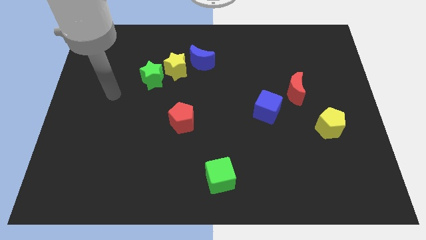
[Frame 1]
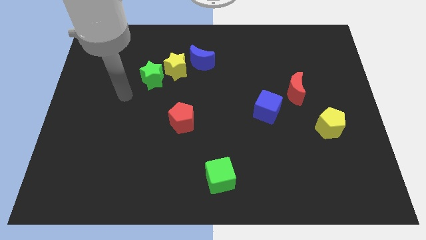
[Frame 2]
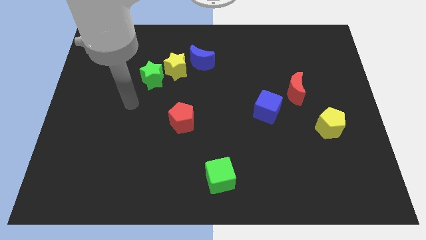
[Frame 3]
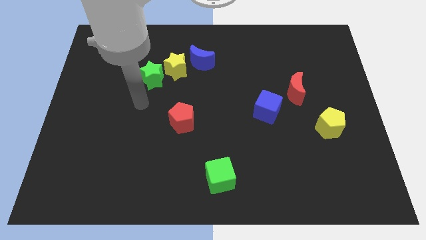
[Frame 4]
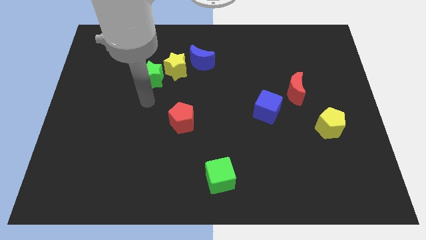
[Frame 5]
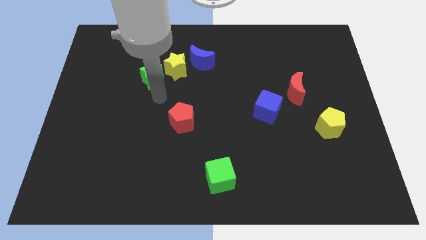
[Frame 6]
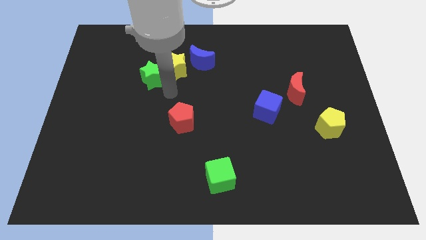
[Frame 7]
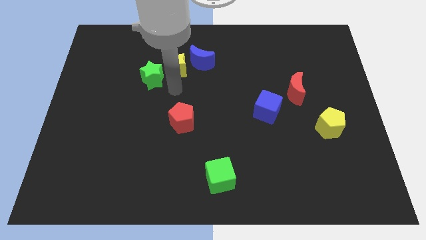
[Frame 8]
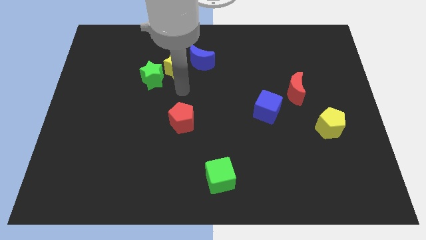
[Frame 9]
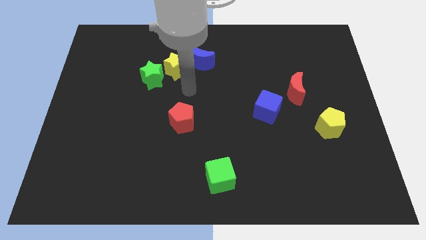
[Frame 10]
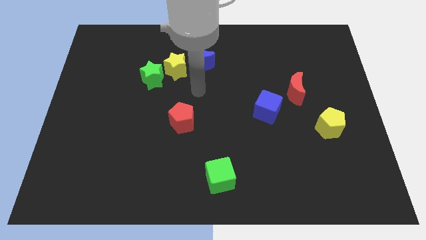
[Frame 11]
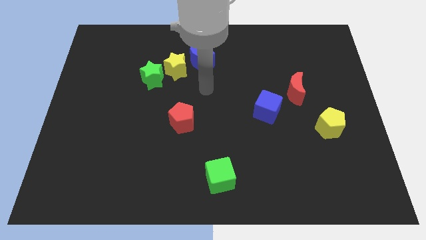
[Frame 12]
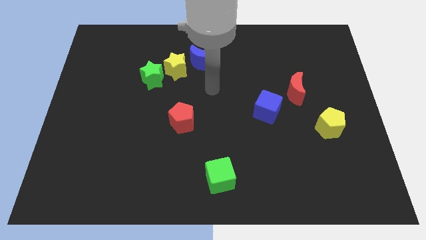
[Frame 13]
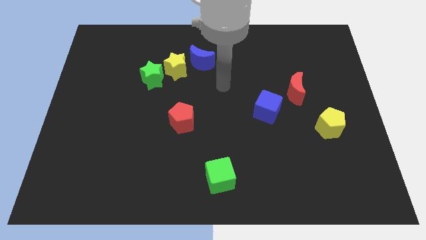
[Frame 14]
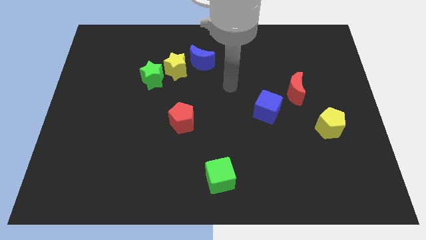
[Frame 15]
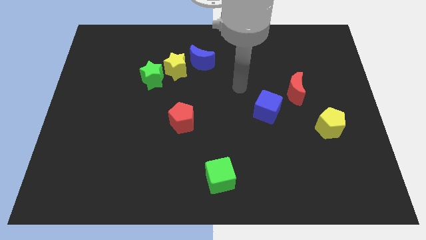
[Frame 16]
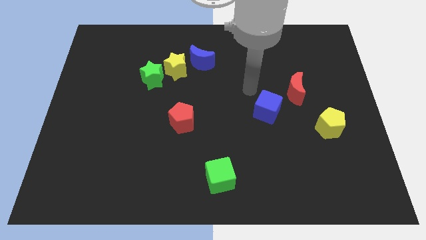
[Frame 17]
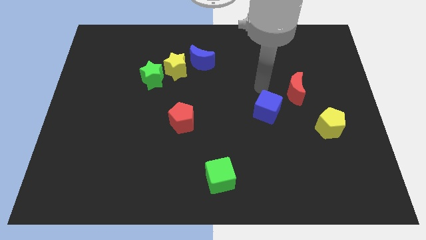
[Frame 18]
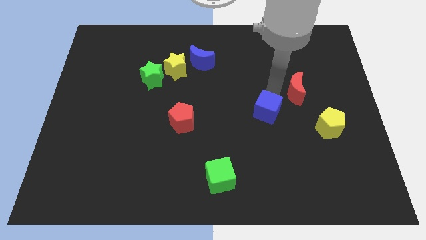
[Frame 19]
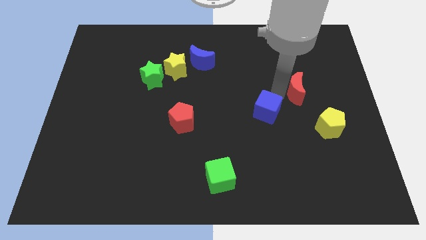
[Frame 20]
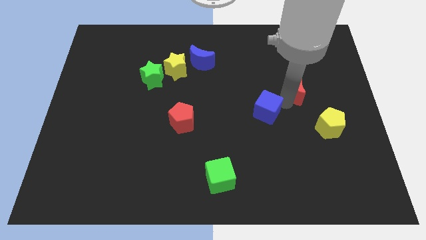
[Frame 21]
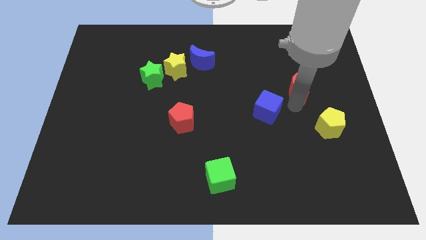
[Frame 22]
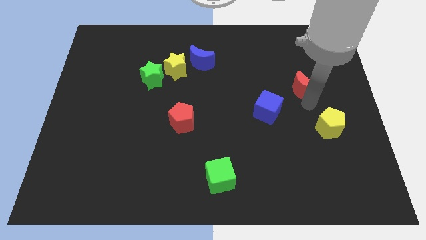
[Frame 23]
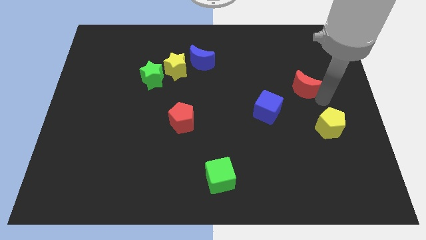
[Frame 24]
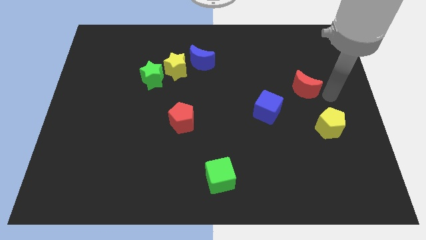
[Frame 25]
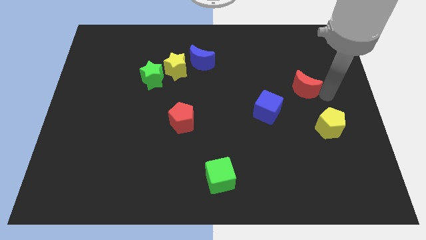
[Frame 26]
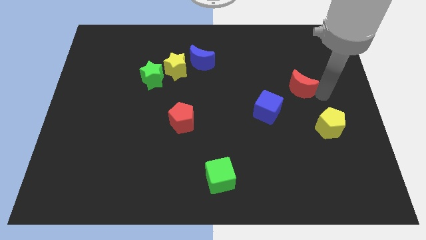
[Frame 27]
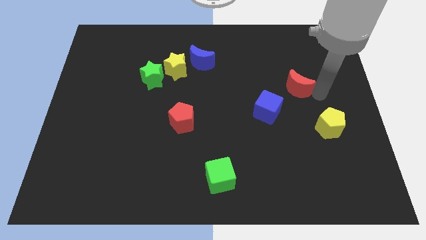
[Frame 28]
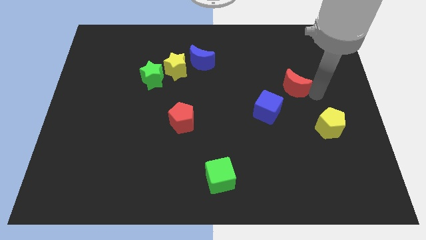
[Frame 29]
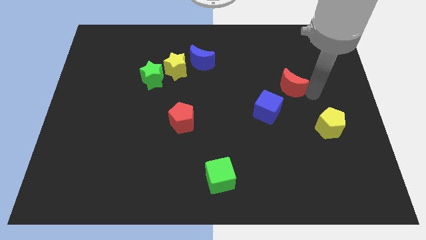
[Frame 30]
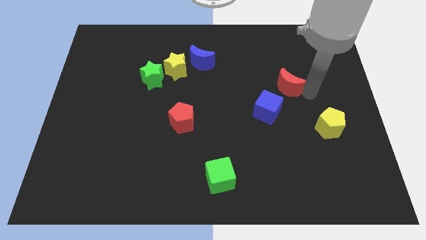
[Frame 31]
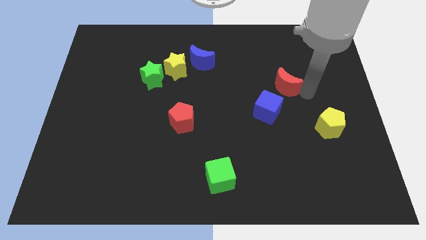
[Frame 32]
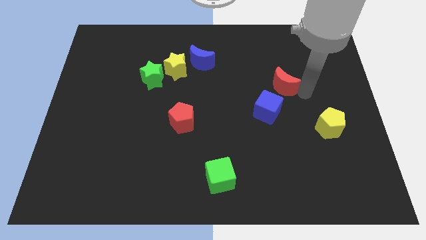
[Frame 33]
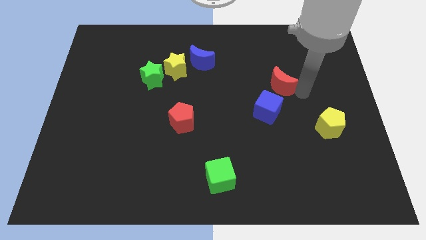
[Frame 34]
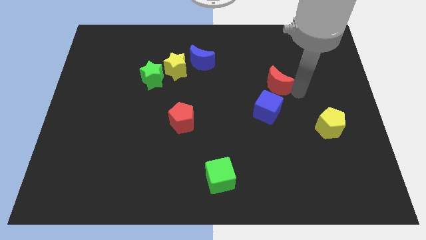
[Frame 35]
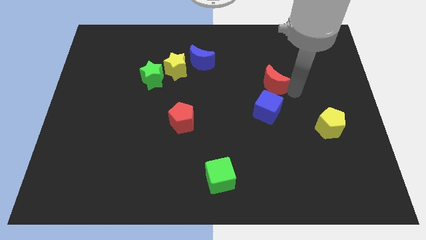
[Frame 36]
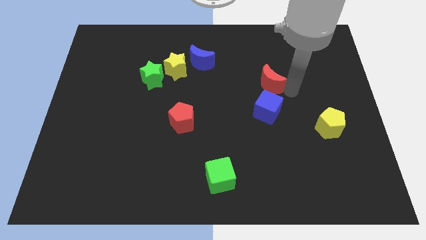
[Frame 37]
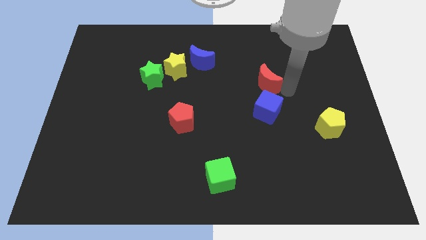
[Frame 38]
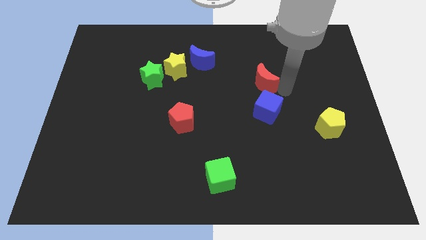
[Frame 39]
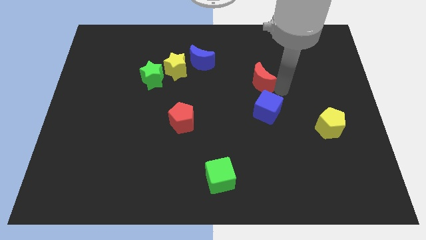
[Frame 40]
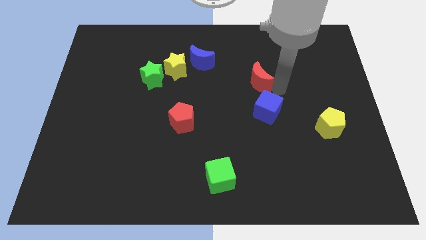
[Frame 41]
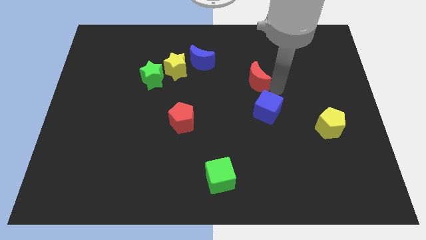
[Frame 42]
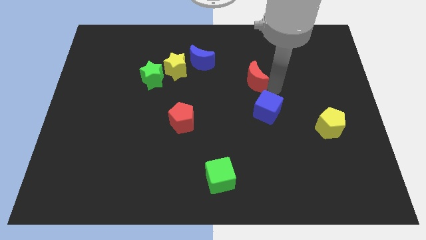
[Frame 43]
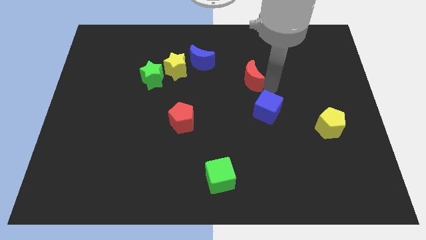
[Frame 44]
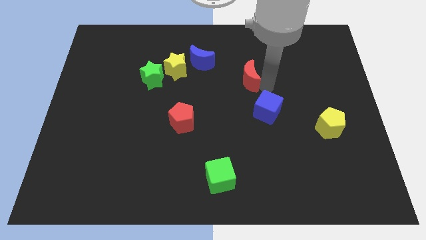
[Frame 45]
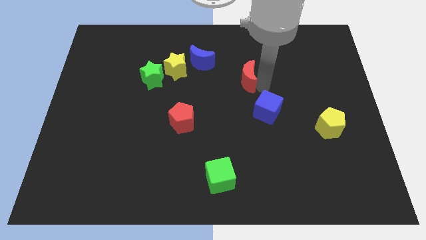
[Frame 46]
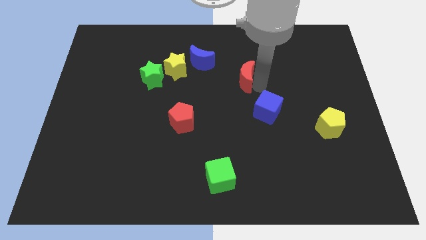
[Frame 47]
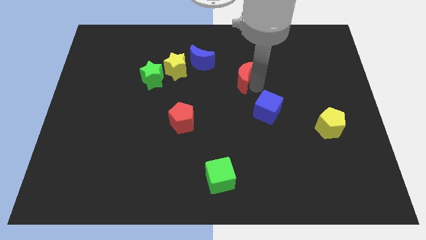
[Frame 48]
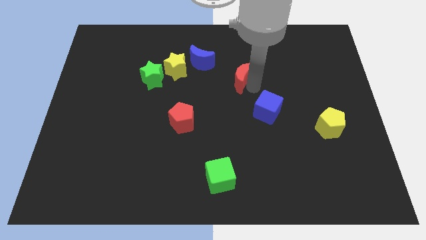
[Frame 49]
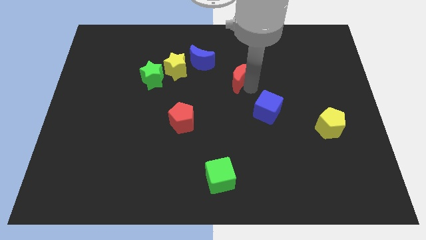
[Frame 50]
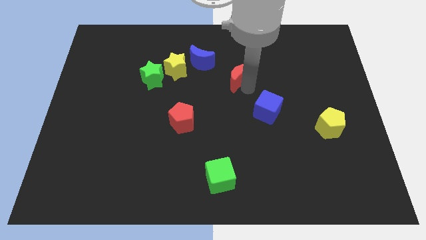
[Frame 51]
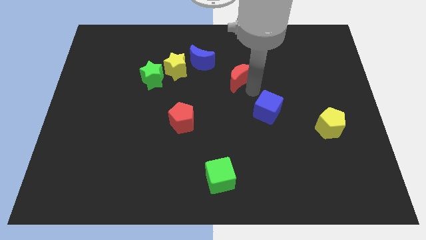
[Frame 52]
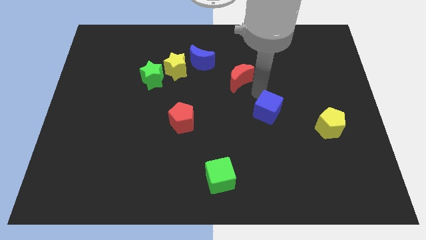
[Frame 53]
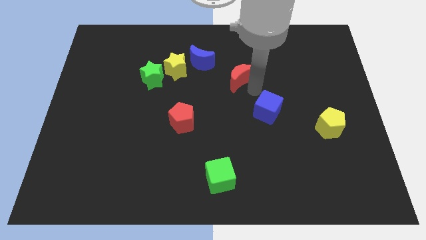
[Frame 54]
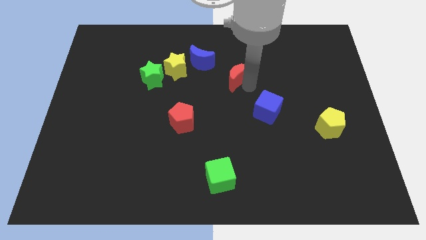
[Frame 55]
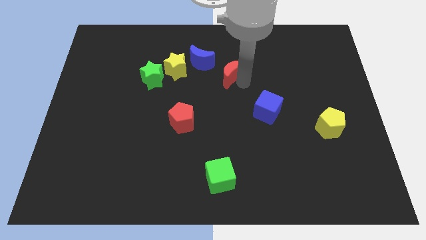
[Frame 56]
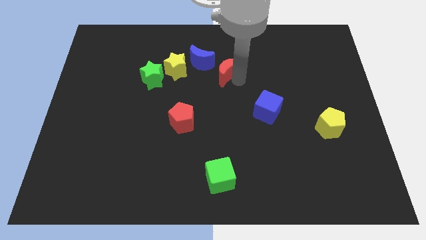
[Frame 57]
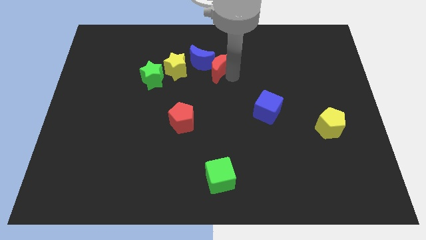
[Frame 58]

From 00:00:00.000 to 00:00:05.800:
push the red moon towards the blue moon

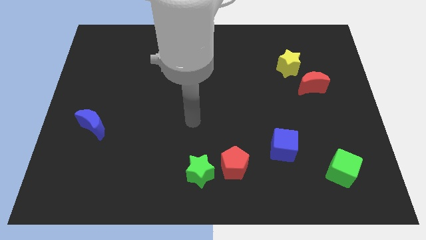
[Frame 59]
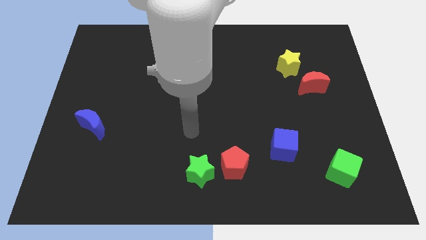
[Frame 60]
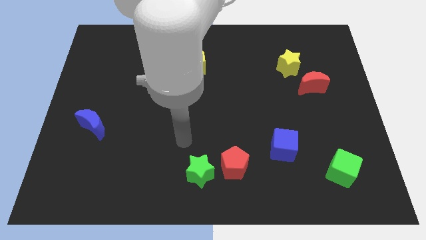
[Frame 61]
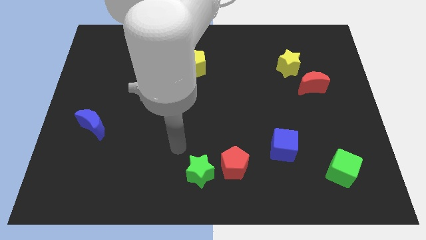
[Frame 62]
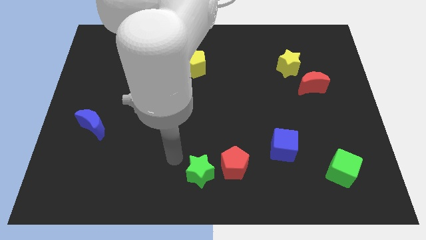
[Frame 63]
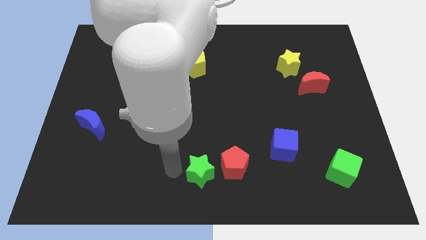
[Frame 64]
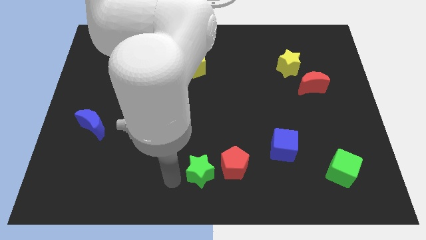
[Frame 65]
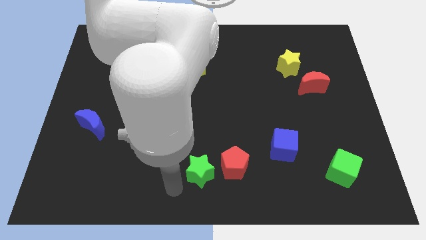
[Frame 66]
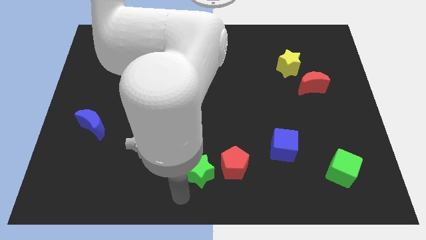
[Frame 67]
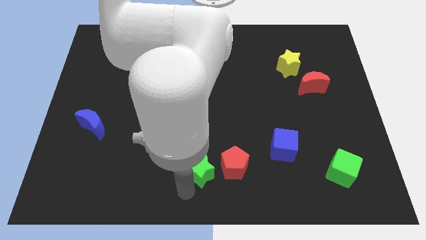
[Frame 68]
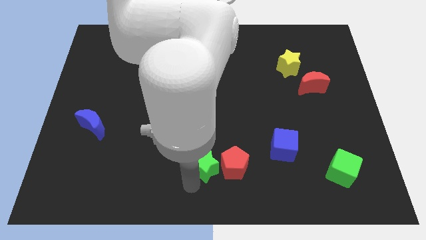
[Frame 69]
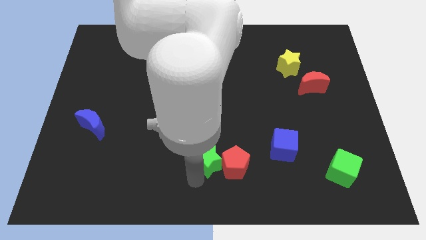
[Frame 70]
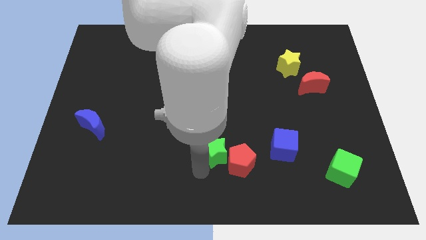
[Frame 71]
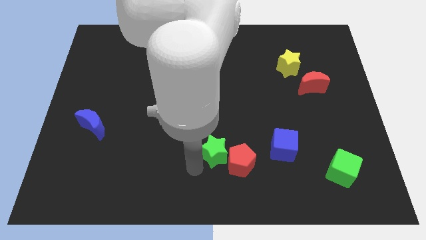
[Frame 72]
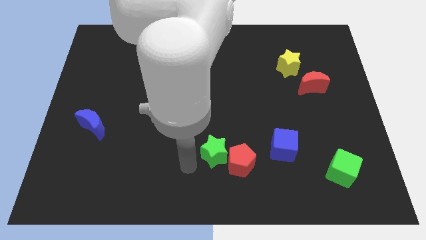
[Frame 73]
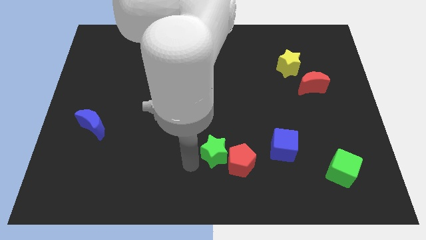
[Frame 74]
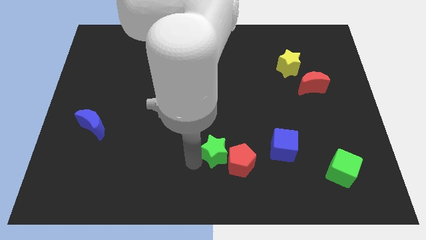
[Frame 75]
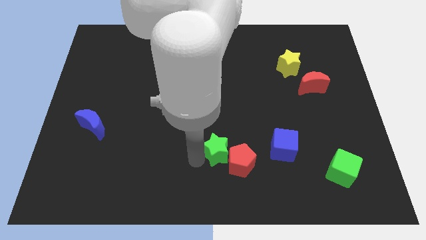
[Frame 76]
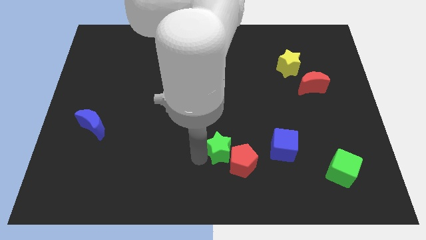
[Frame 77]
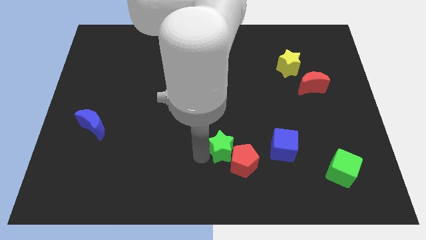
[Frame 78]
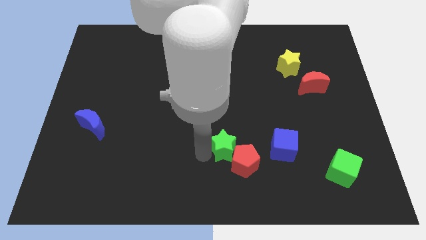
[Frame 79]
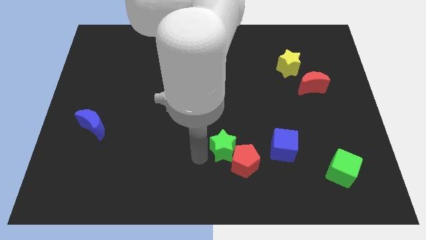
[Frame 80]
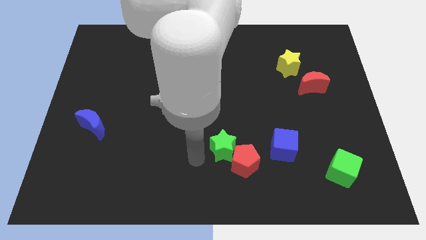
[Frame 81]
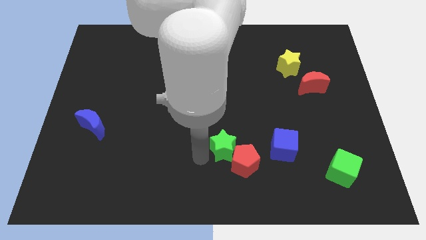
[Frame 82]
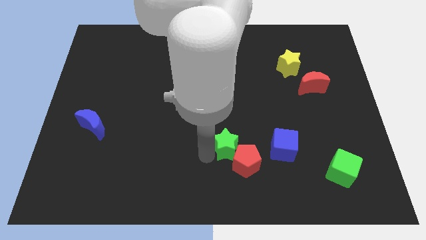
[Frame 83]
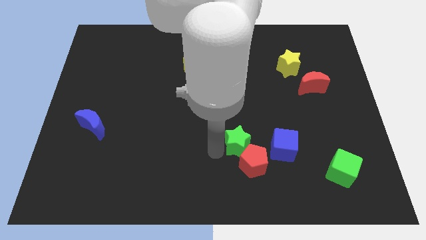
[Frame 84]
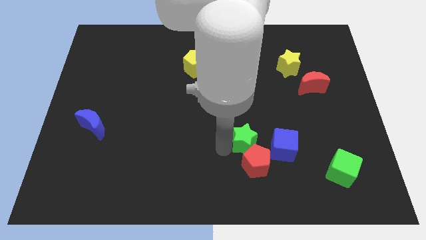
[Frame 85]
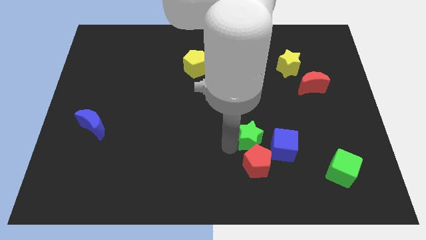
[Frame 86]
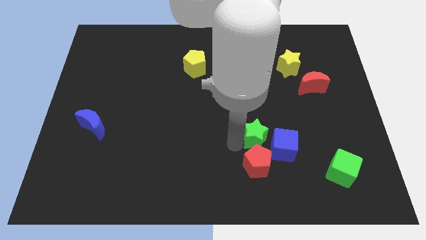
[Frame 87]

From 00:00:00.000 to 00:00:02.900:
slide the green star to the blue cube
